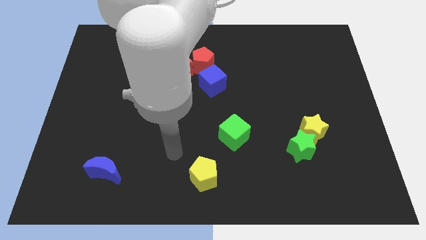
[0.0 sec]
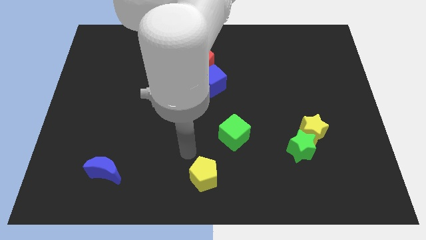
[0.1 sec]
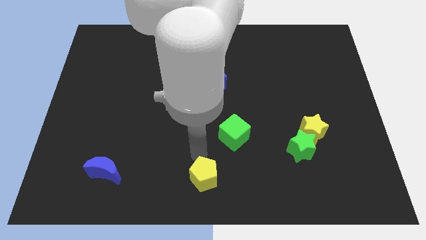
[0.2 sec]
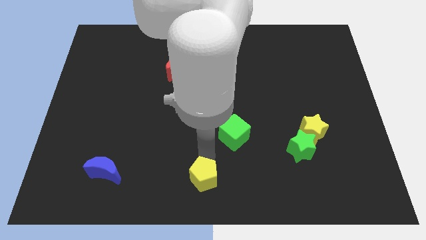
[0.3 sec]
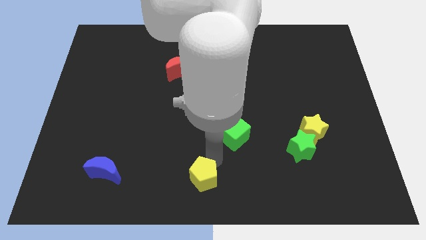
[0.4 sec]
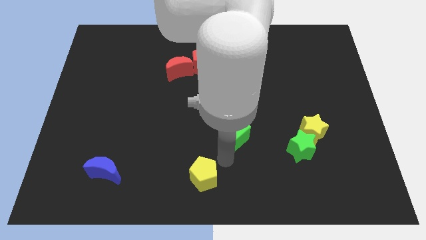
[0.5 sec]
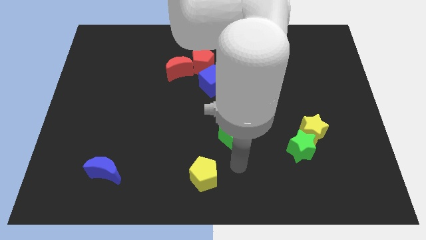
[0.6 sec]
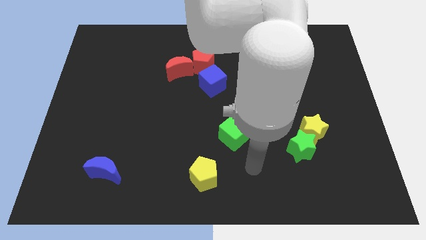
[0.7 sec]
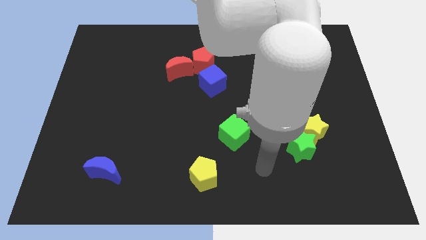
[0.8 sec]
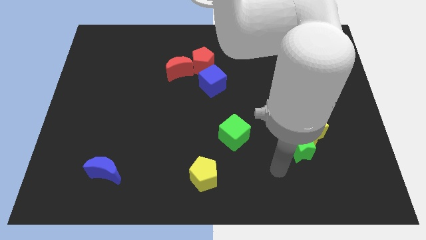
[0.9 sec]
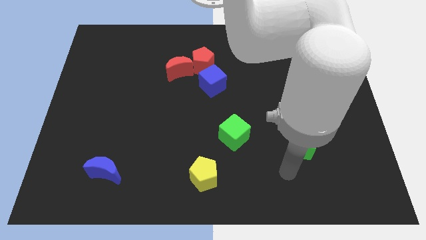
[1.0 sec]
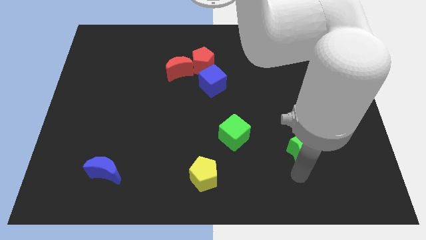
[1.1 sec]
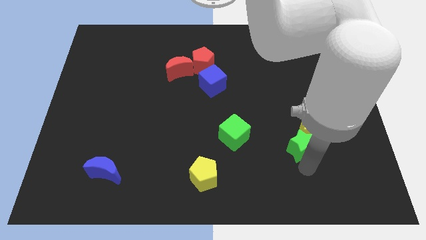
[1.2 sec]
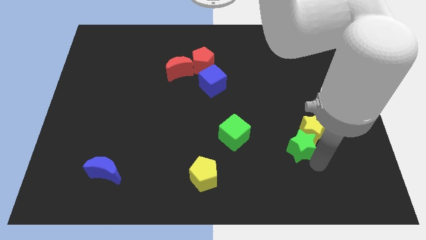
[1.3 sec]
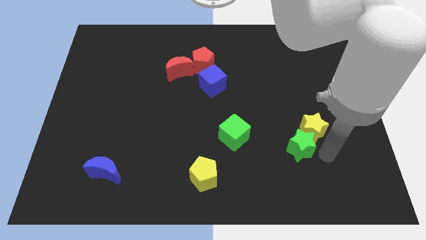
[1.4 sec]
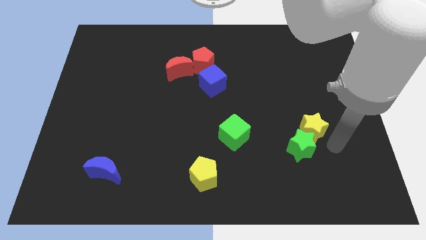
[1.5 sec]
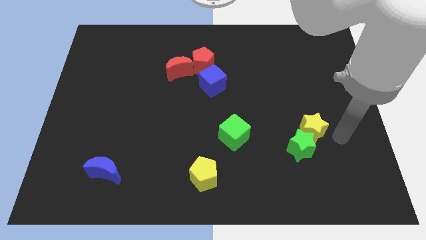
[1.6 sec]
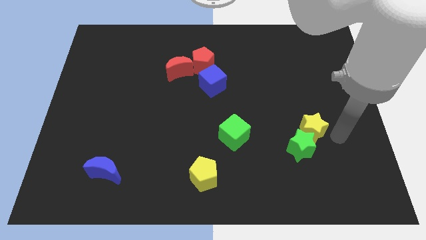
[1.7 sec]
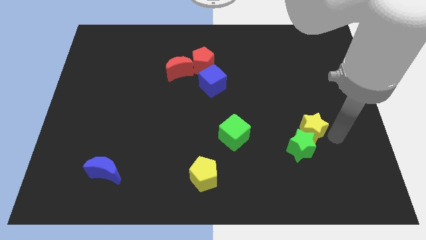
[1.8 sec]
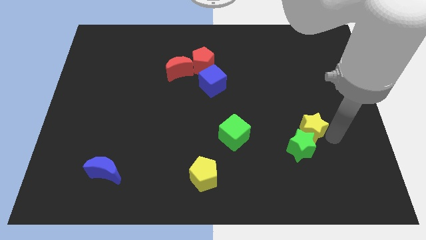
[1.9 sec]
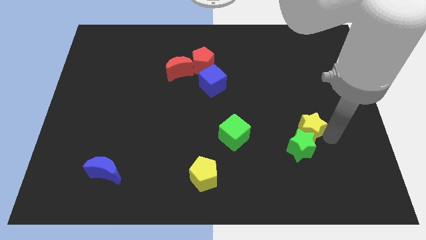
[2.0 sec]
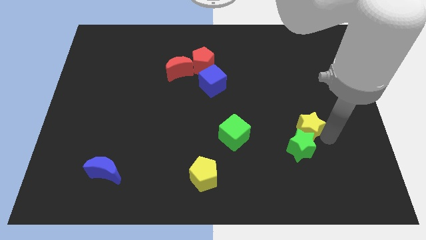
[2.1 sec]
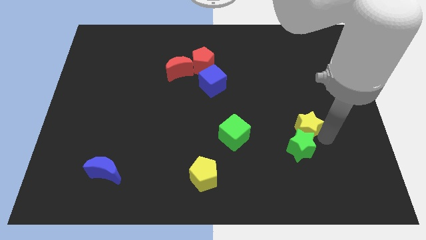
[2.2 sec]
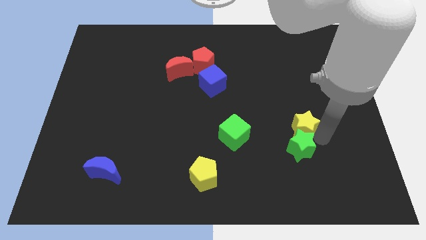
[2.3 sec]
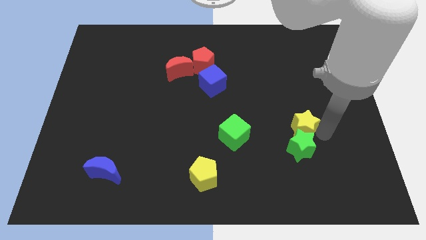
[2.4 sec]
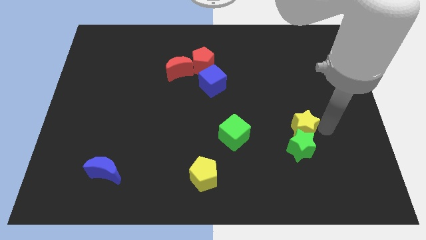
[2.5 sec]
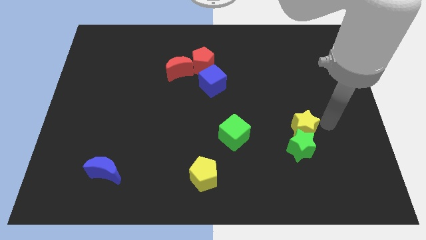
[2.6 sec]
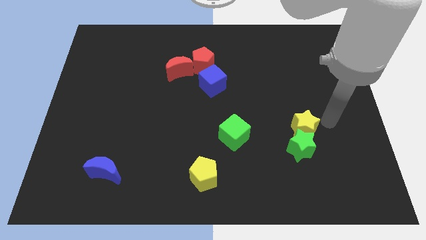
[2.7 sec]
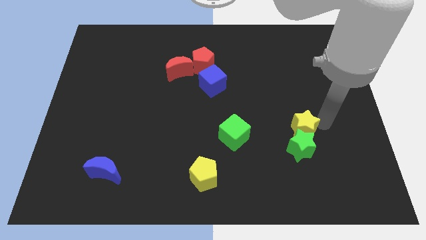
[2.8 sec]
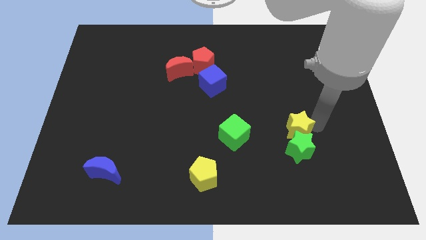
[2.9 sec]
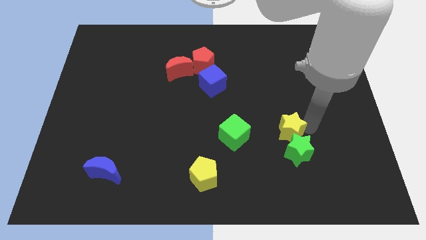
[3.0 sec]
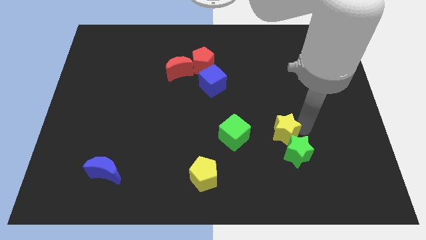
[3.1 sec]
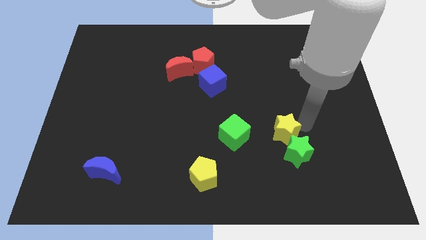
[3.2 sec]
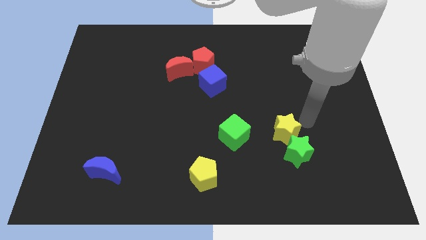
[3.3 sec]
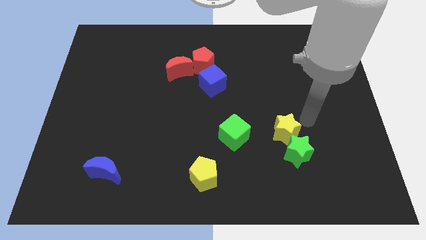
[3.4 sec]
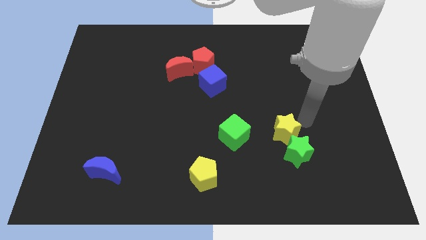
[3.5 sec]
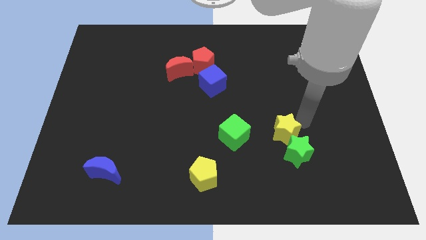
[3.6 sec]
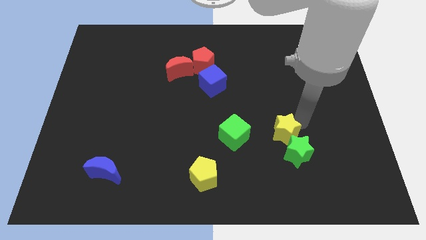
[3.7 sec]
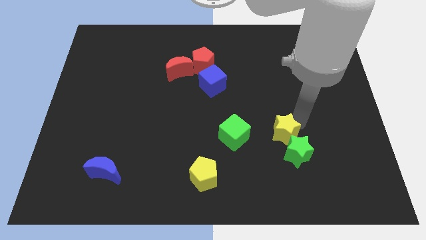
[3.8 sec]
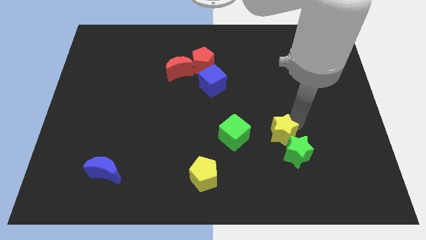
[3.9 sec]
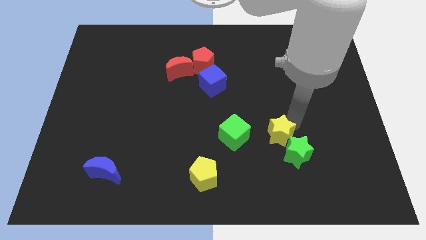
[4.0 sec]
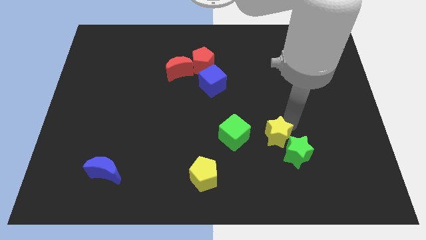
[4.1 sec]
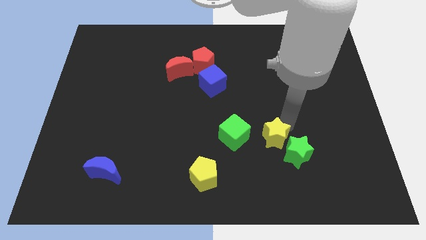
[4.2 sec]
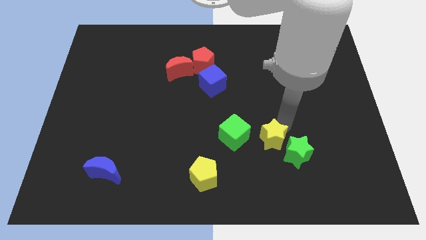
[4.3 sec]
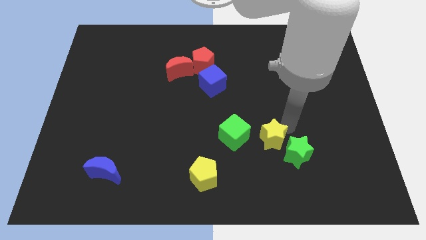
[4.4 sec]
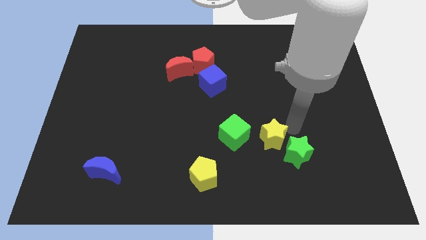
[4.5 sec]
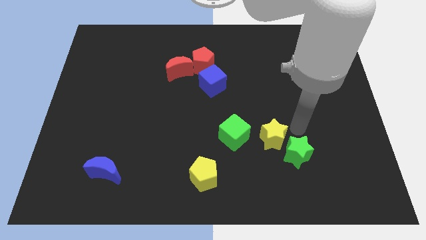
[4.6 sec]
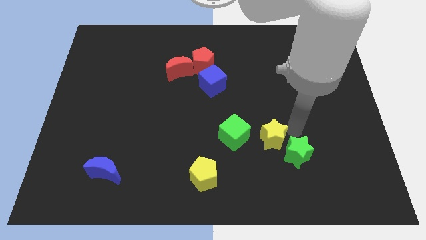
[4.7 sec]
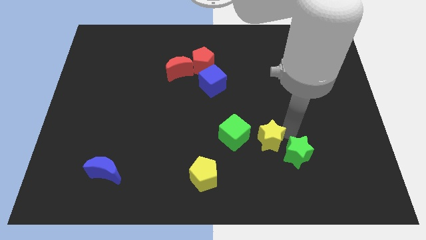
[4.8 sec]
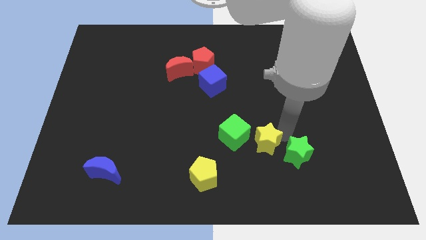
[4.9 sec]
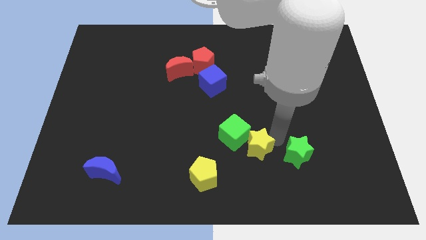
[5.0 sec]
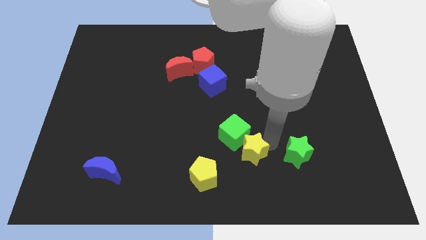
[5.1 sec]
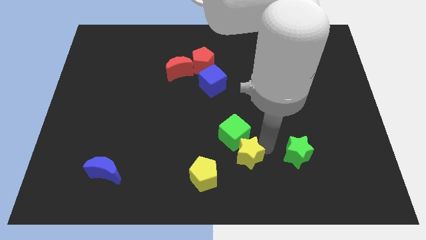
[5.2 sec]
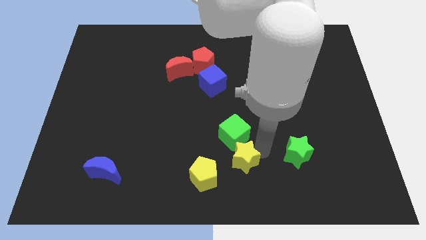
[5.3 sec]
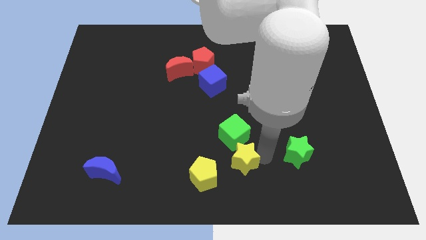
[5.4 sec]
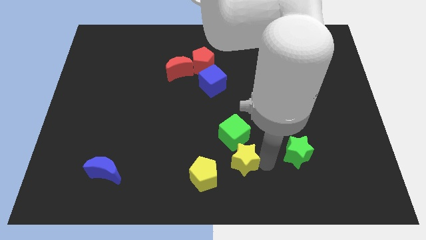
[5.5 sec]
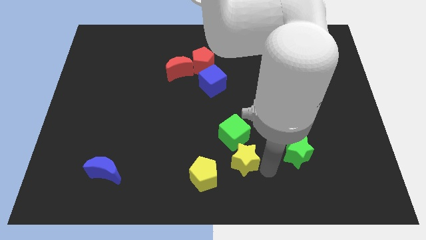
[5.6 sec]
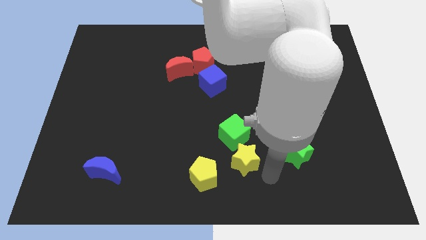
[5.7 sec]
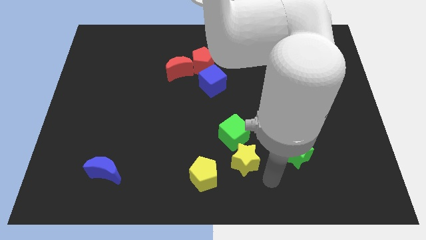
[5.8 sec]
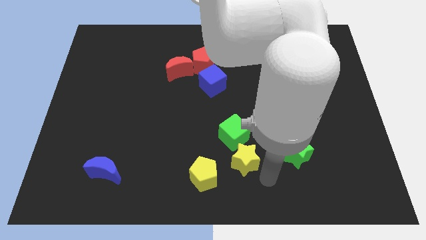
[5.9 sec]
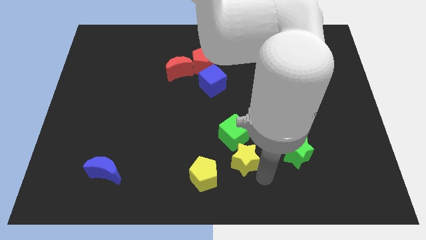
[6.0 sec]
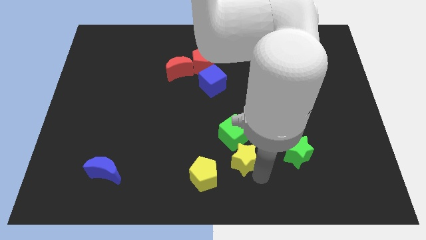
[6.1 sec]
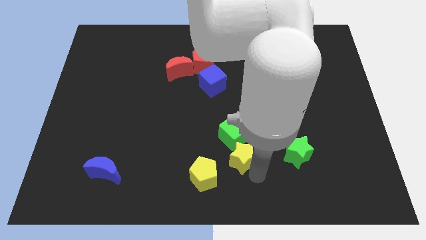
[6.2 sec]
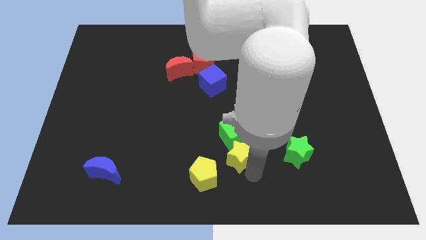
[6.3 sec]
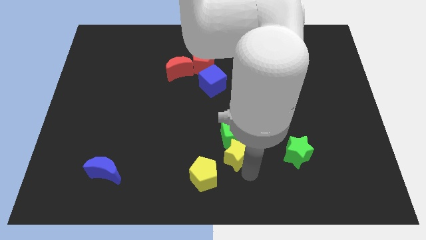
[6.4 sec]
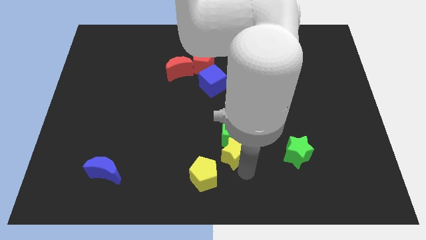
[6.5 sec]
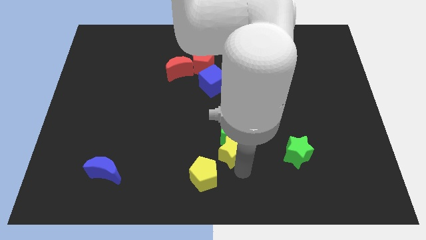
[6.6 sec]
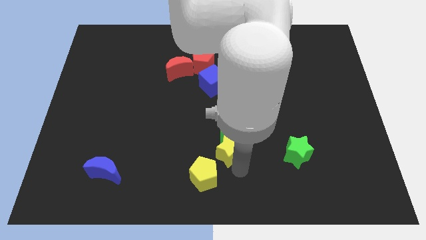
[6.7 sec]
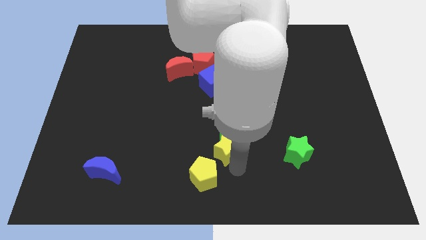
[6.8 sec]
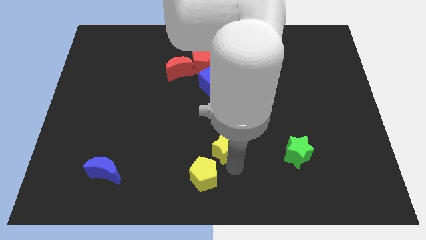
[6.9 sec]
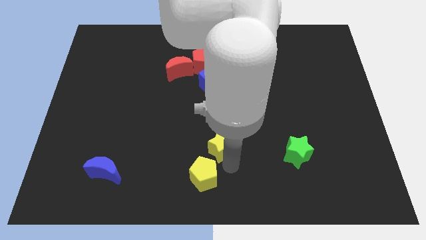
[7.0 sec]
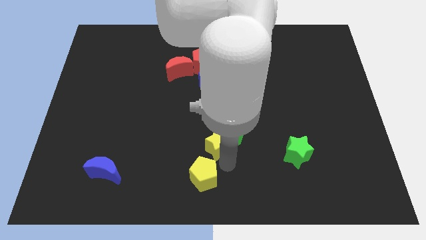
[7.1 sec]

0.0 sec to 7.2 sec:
move the yellow star left

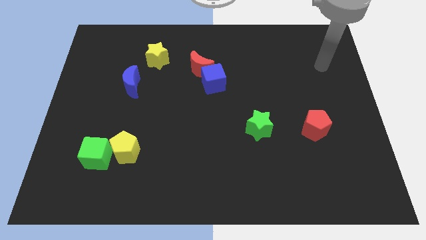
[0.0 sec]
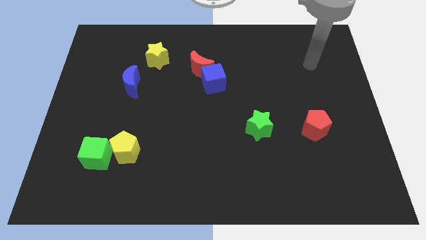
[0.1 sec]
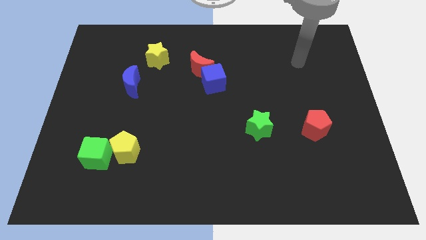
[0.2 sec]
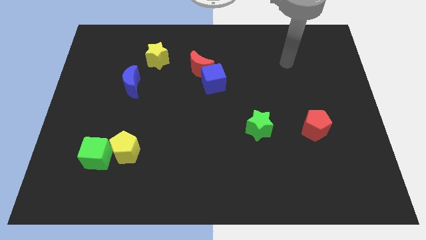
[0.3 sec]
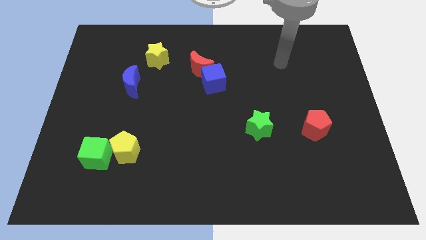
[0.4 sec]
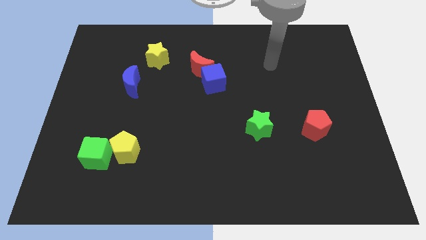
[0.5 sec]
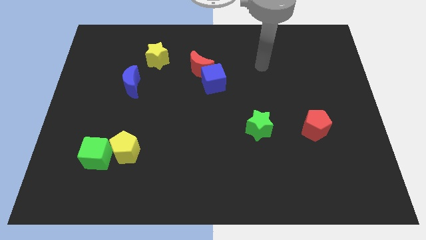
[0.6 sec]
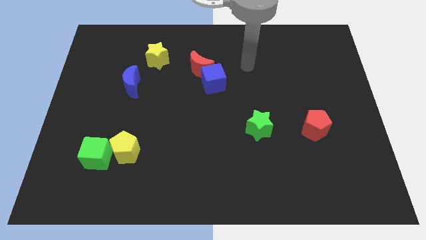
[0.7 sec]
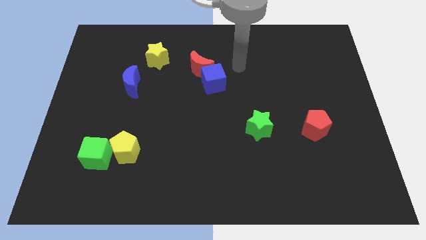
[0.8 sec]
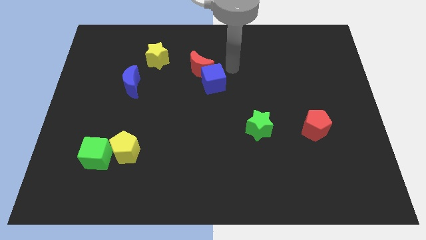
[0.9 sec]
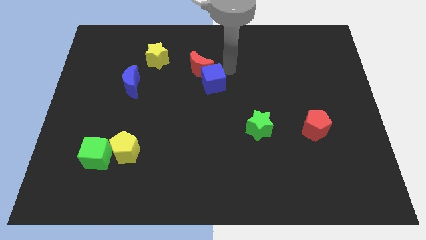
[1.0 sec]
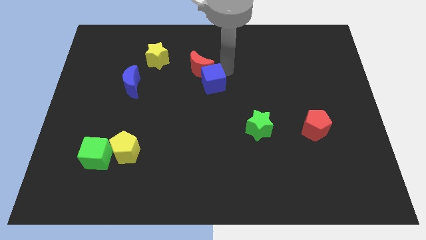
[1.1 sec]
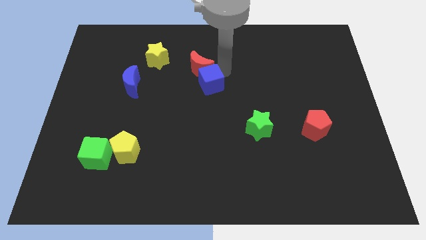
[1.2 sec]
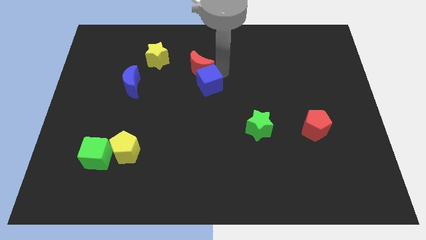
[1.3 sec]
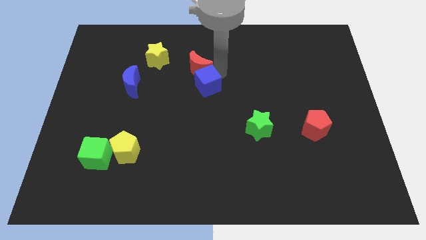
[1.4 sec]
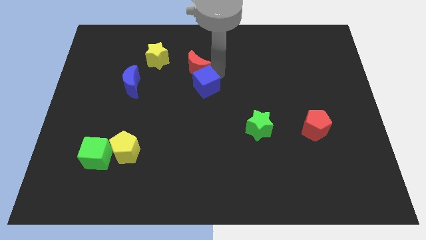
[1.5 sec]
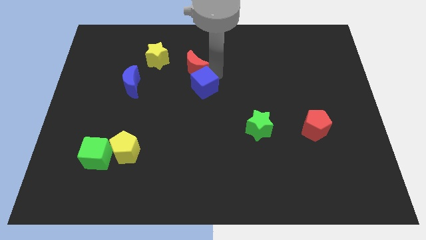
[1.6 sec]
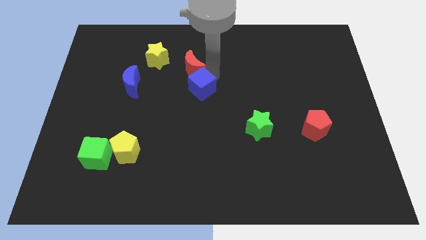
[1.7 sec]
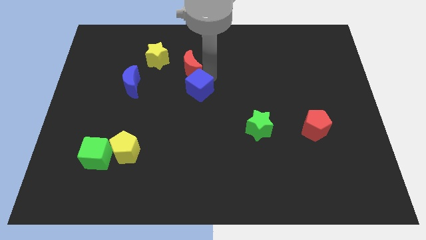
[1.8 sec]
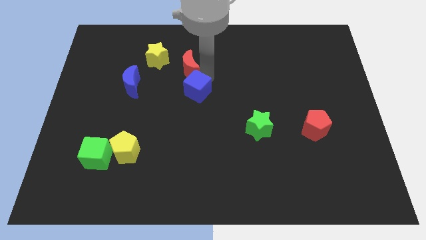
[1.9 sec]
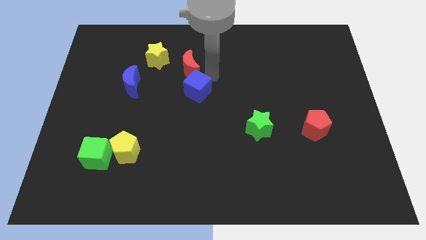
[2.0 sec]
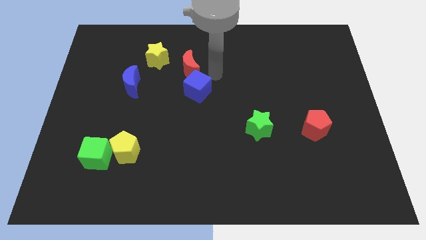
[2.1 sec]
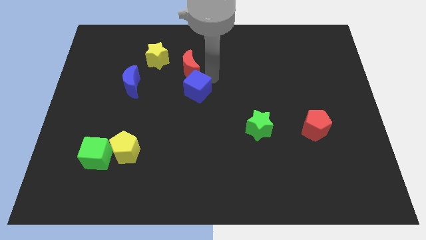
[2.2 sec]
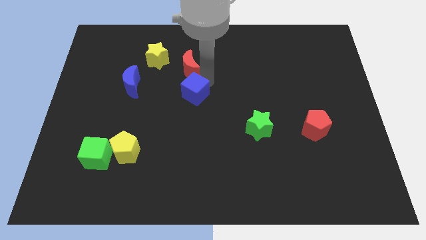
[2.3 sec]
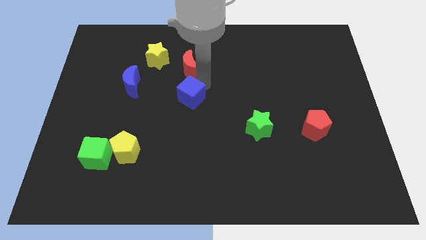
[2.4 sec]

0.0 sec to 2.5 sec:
slightly slide the blue cube down and to the left diagonally
